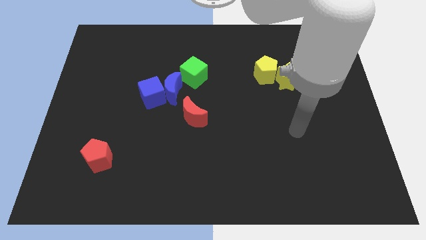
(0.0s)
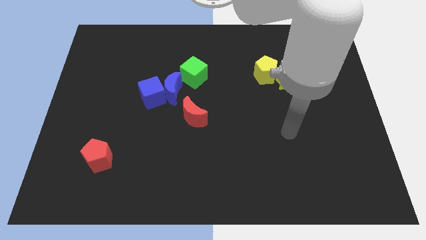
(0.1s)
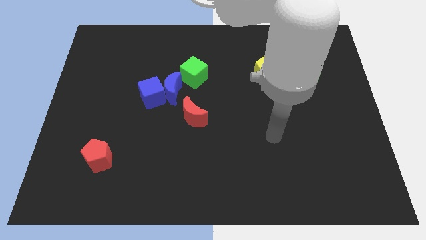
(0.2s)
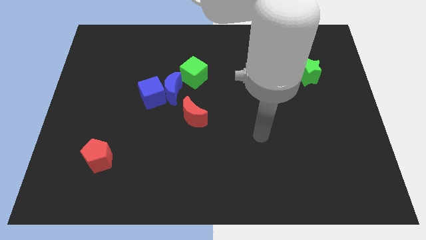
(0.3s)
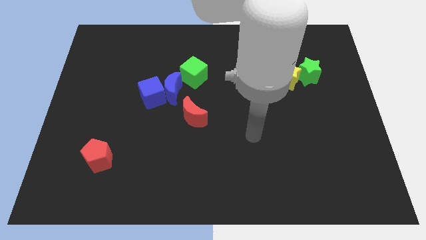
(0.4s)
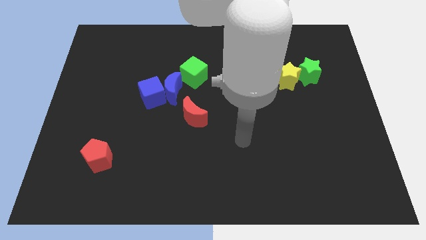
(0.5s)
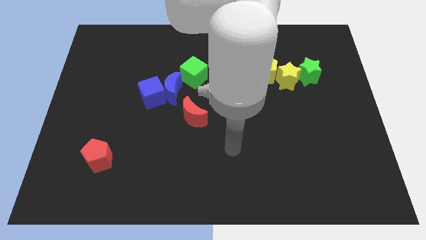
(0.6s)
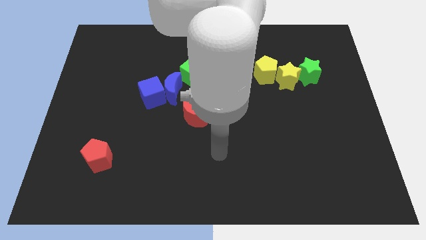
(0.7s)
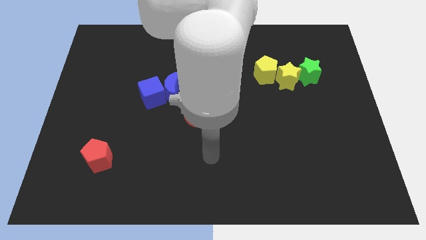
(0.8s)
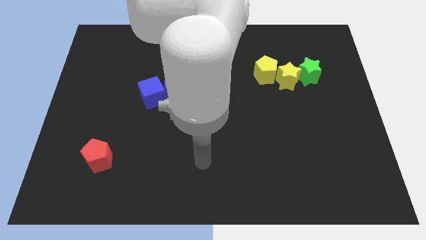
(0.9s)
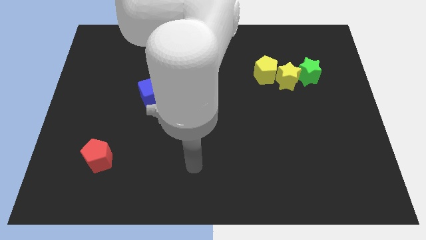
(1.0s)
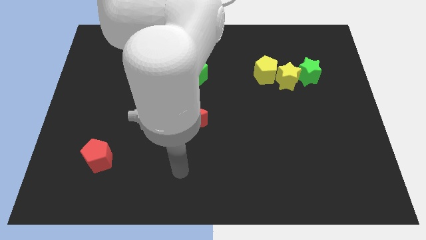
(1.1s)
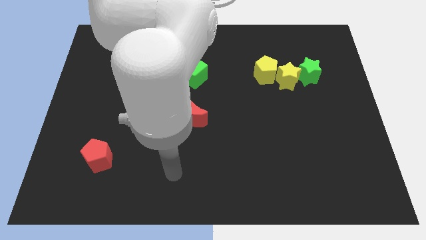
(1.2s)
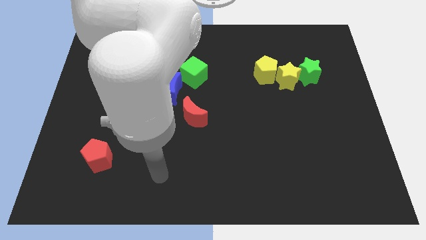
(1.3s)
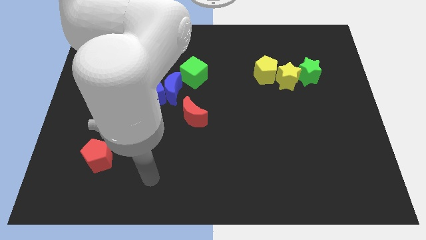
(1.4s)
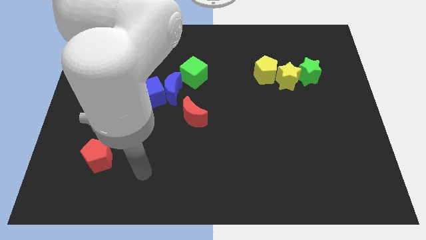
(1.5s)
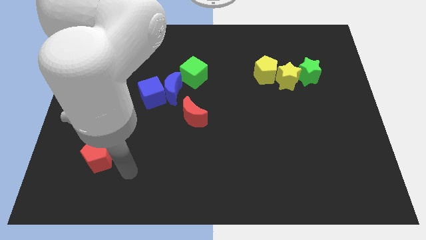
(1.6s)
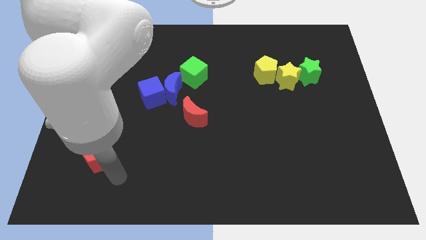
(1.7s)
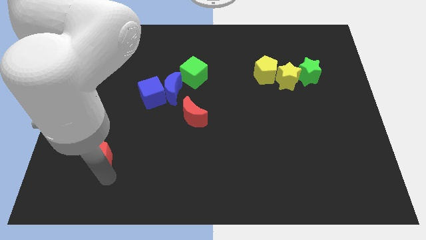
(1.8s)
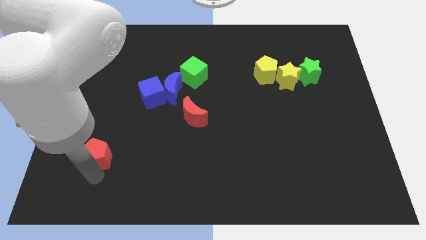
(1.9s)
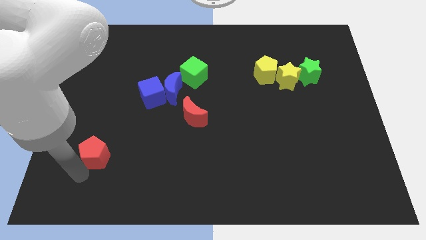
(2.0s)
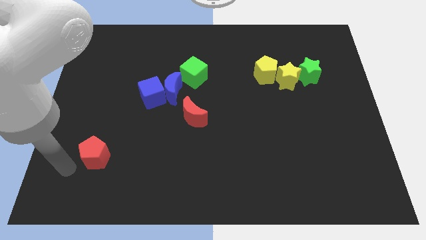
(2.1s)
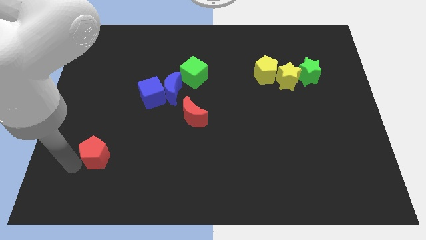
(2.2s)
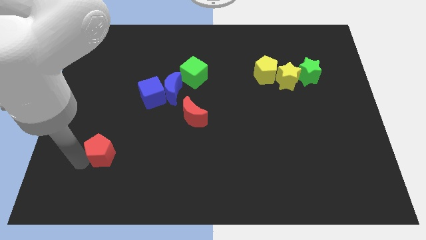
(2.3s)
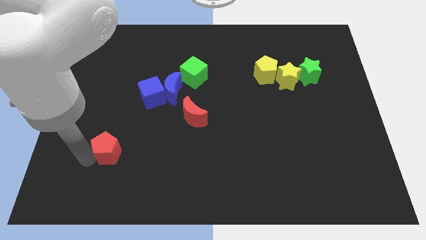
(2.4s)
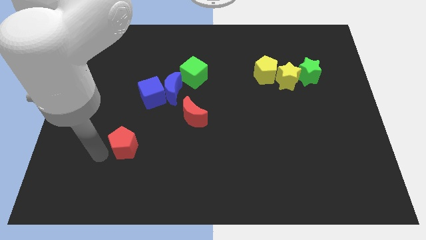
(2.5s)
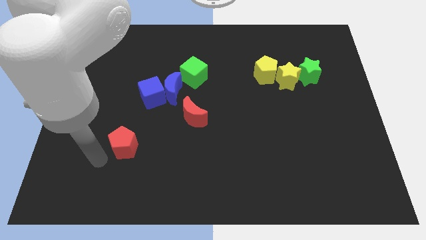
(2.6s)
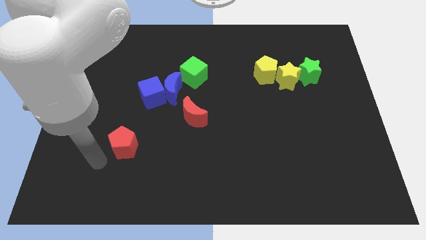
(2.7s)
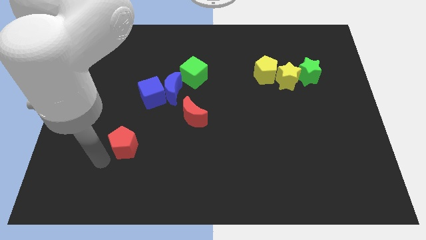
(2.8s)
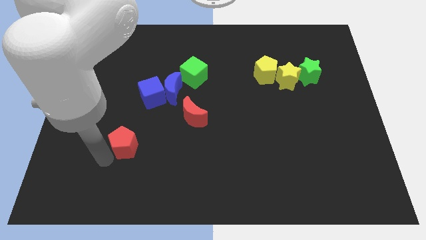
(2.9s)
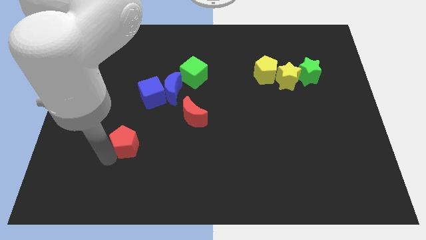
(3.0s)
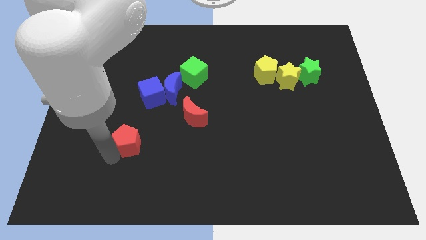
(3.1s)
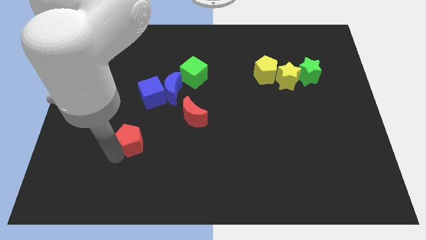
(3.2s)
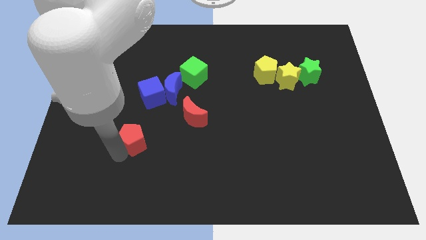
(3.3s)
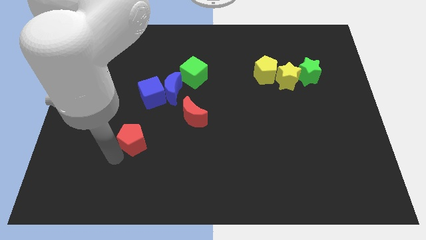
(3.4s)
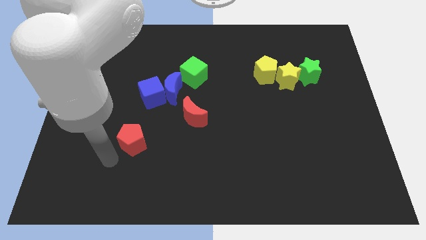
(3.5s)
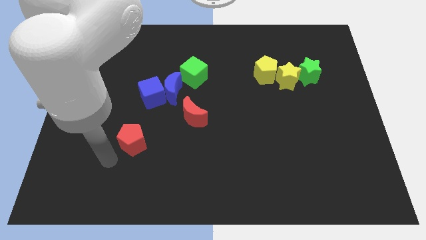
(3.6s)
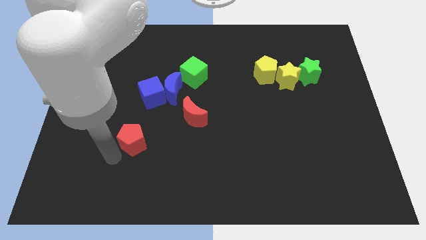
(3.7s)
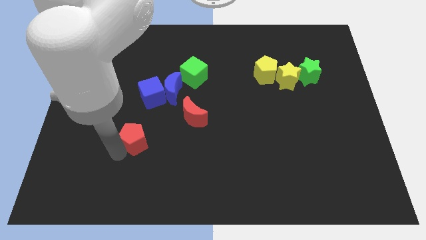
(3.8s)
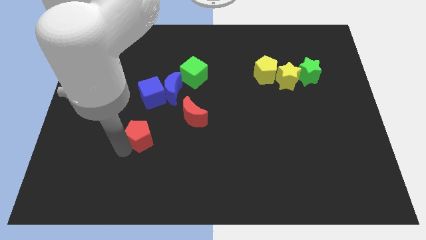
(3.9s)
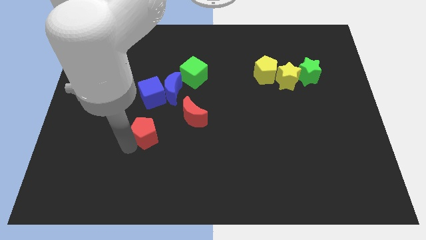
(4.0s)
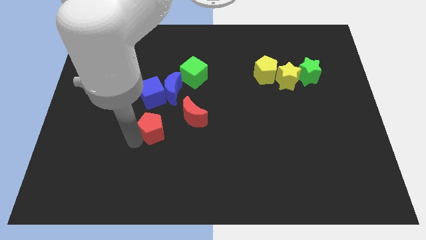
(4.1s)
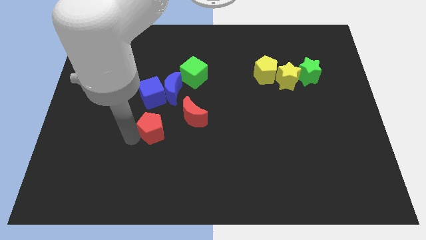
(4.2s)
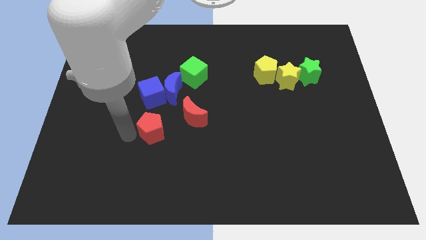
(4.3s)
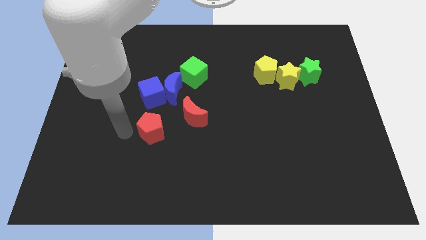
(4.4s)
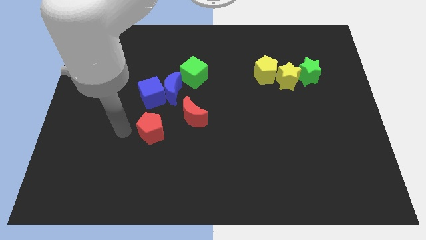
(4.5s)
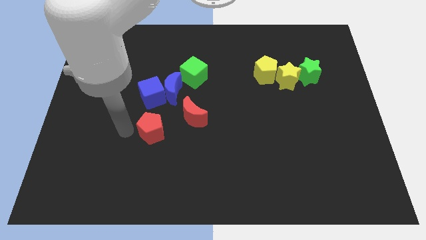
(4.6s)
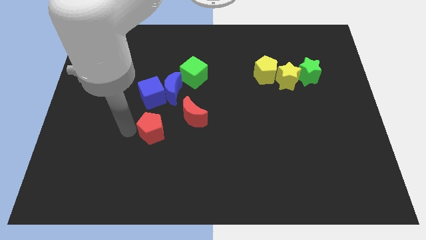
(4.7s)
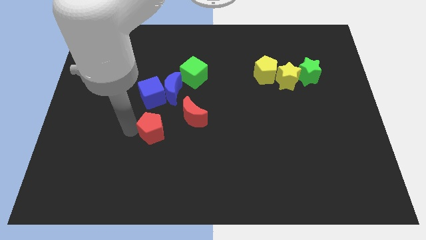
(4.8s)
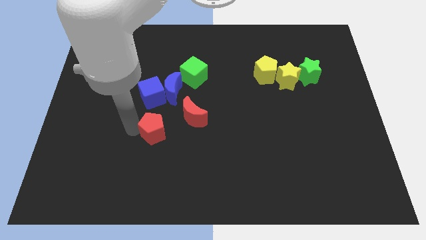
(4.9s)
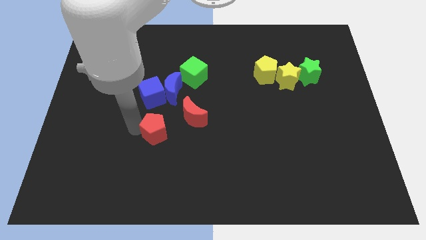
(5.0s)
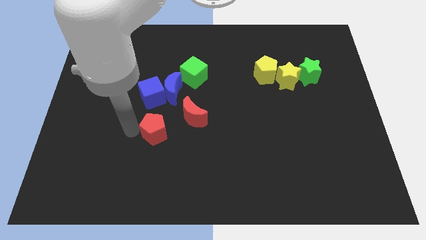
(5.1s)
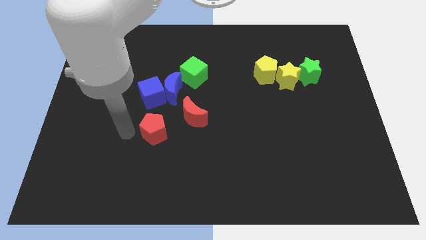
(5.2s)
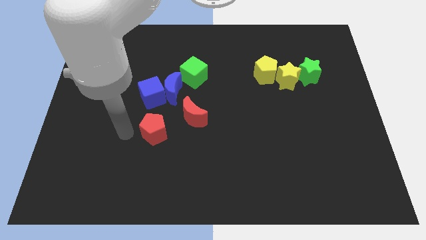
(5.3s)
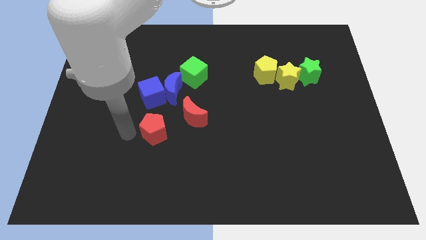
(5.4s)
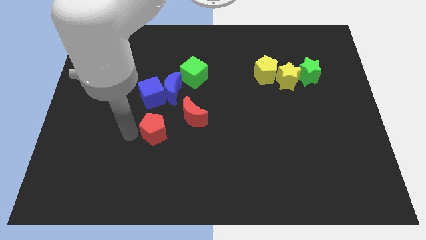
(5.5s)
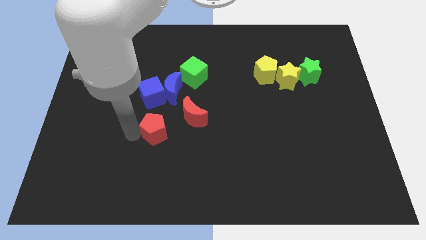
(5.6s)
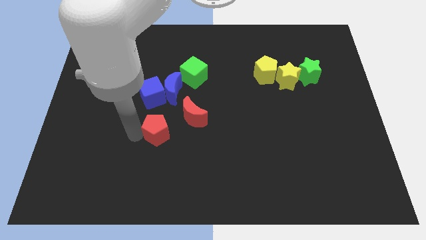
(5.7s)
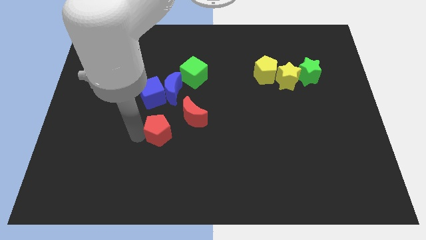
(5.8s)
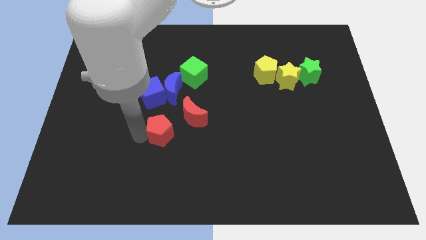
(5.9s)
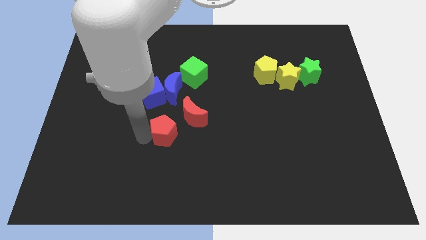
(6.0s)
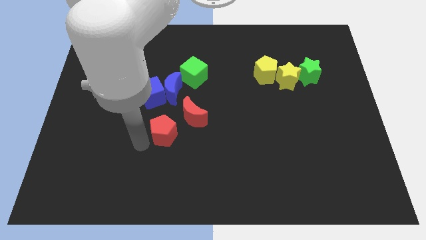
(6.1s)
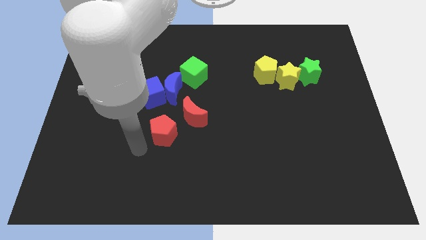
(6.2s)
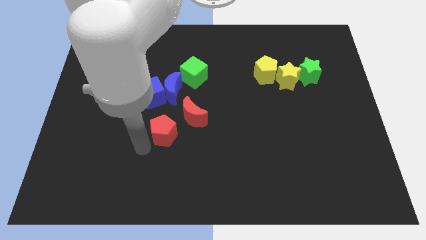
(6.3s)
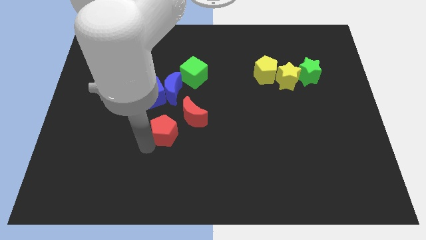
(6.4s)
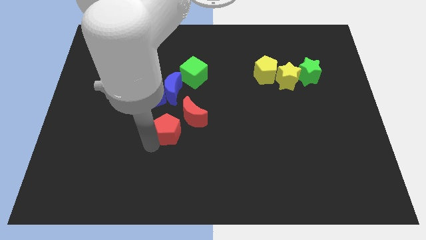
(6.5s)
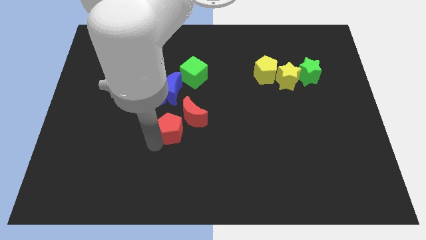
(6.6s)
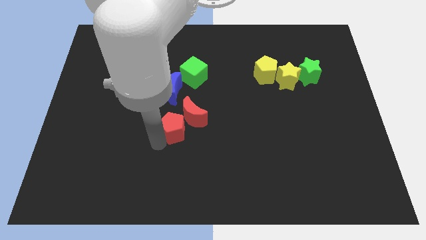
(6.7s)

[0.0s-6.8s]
move the red pentagon next to the red moon
